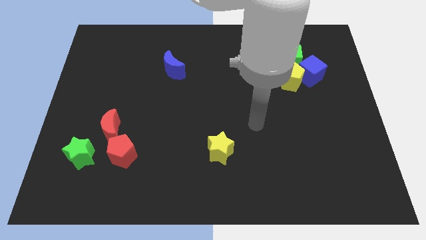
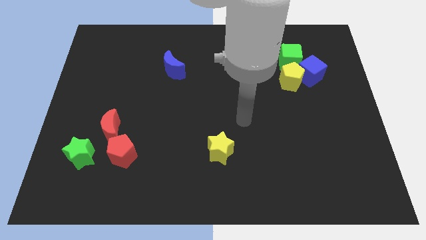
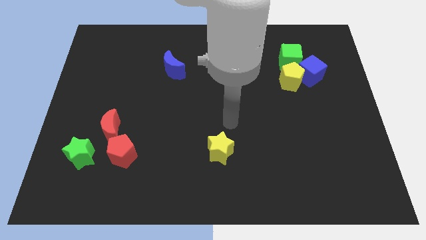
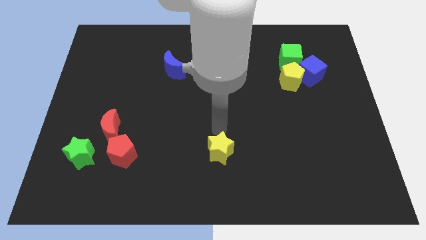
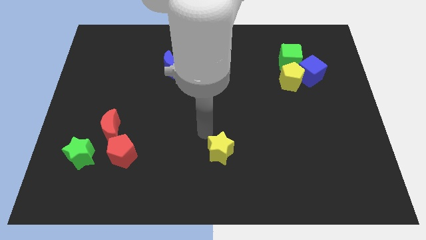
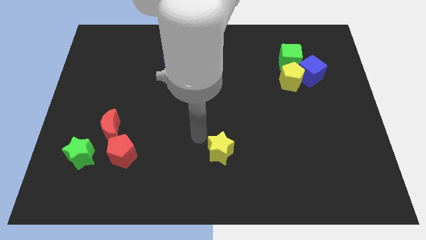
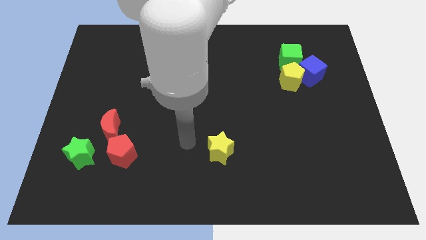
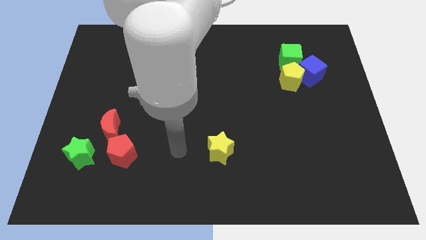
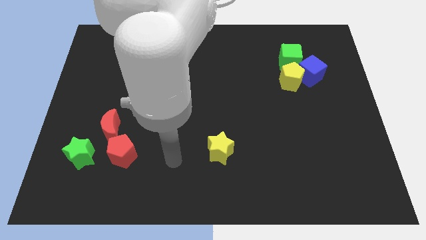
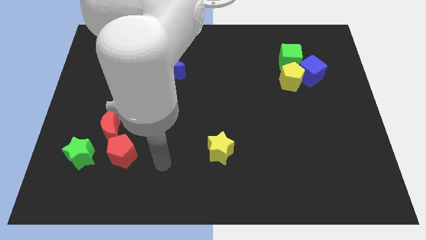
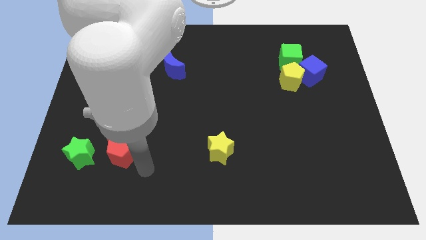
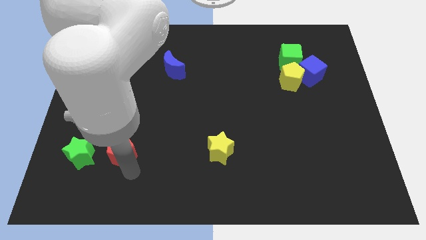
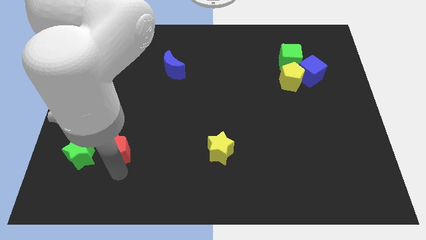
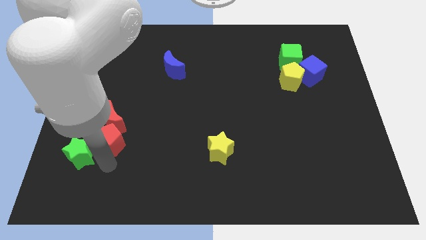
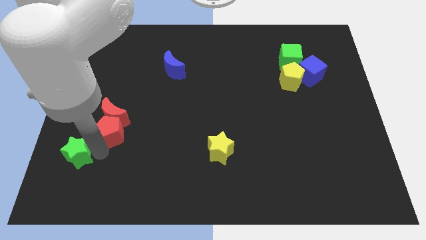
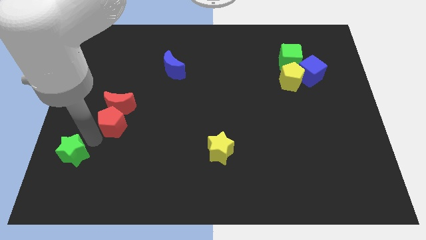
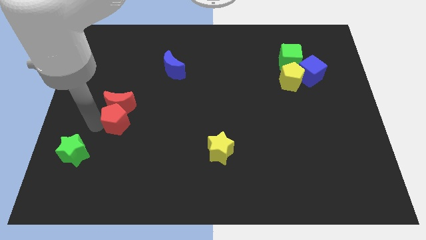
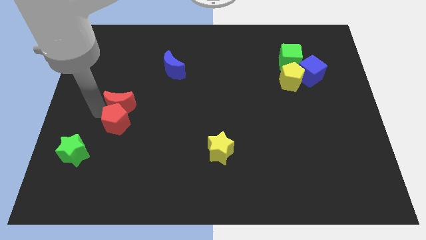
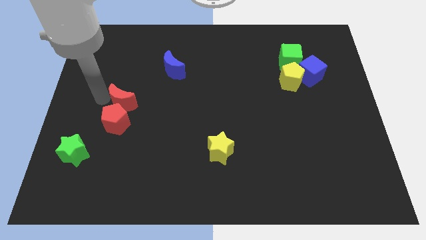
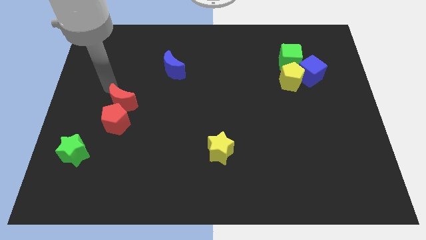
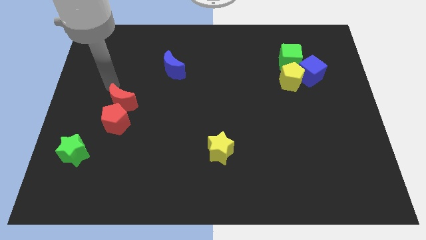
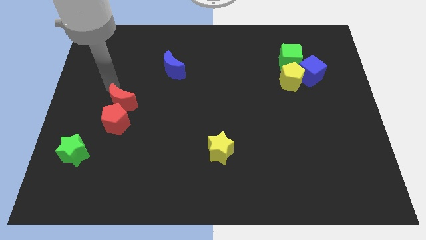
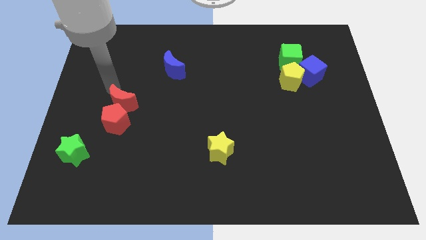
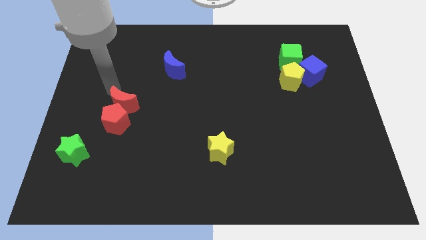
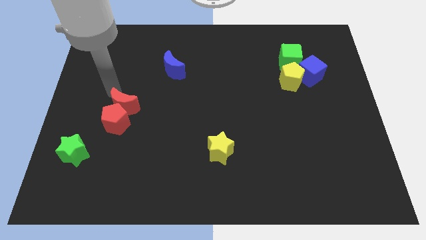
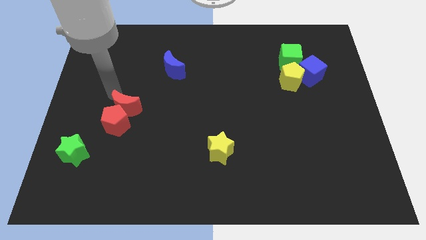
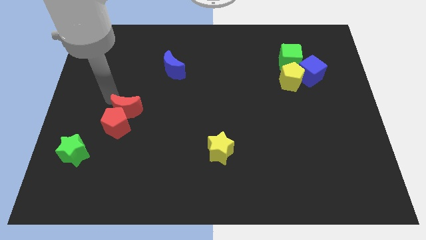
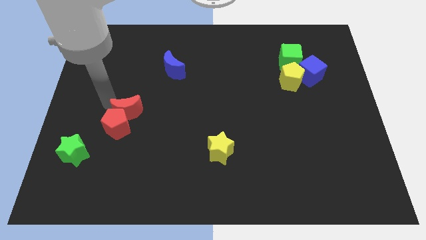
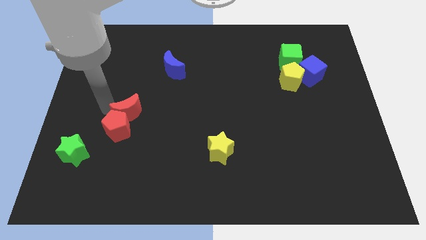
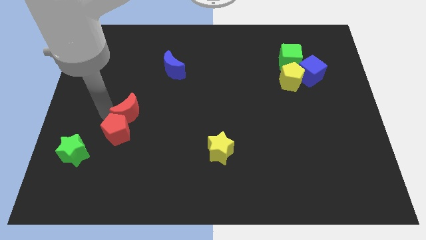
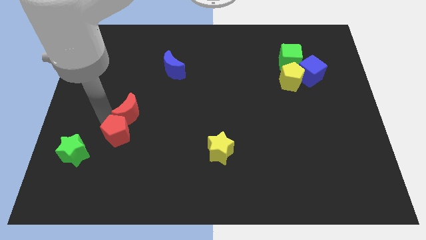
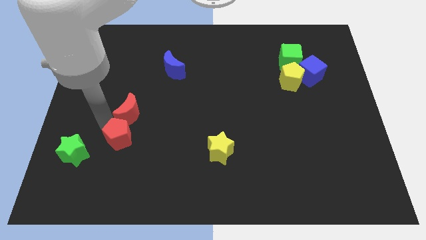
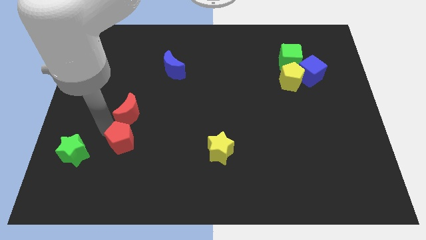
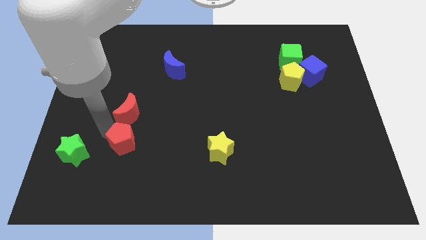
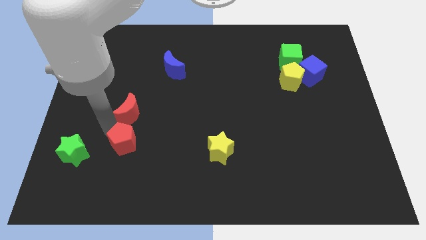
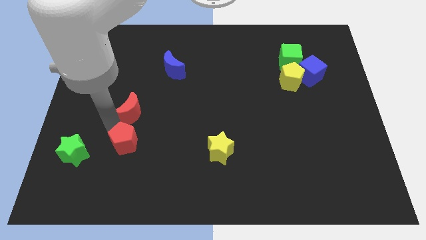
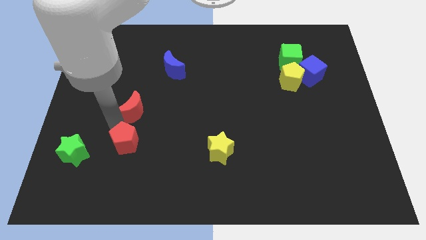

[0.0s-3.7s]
move the red moon a little bit upwards and right diagonally

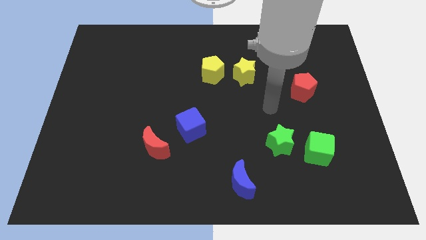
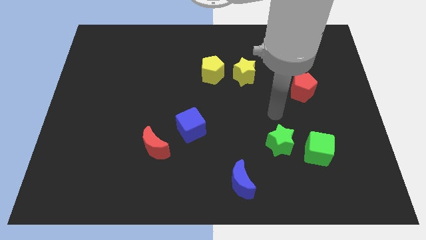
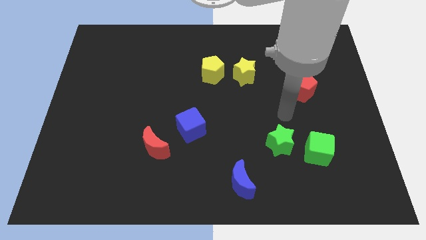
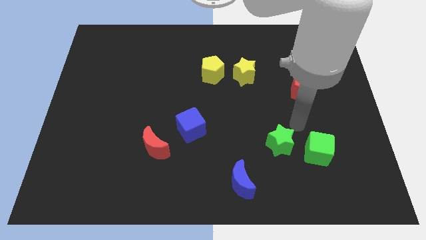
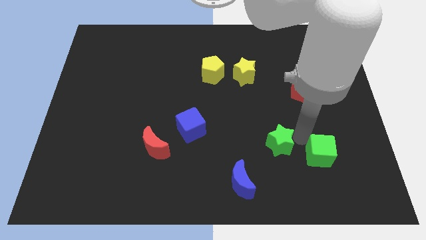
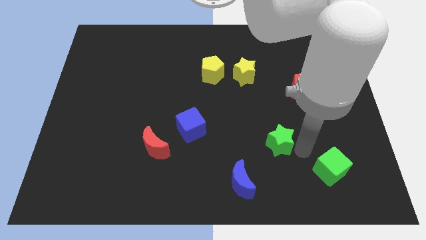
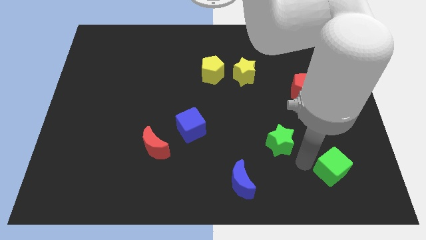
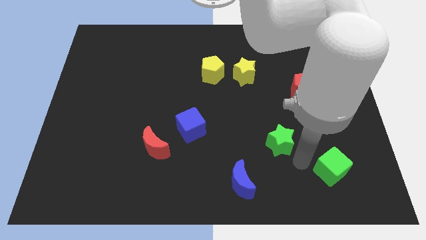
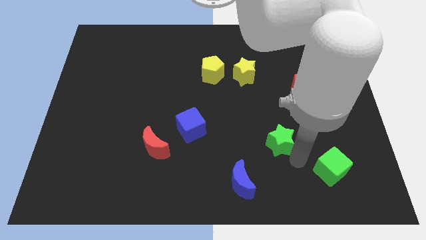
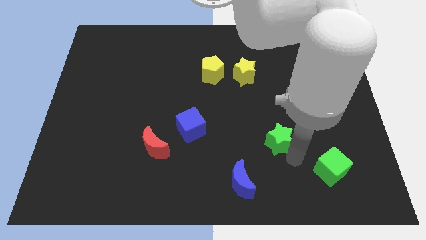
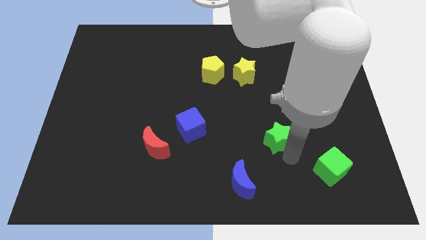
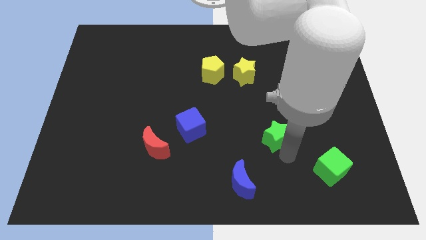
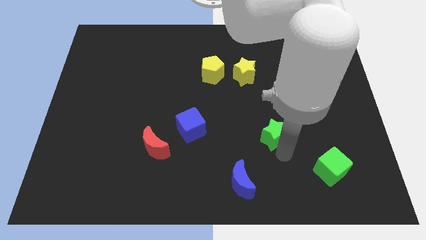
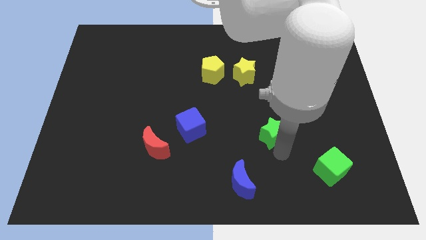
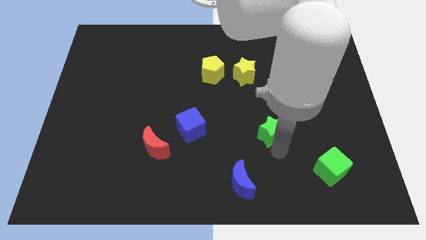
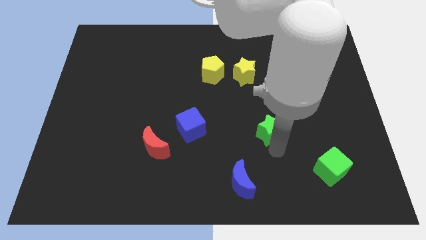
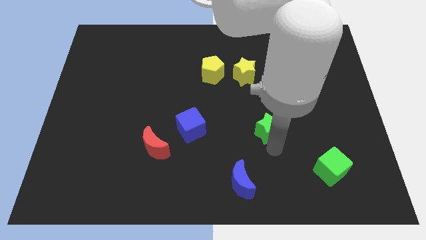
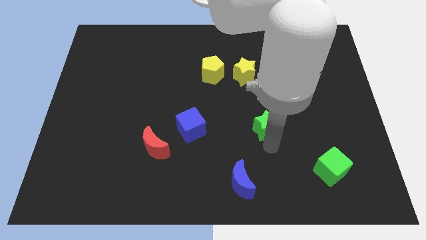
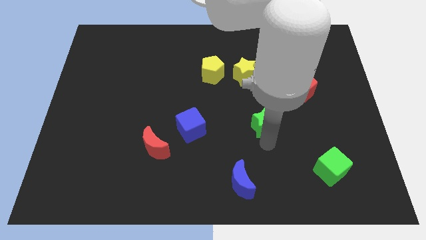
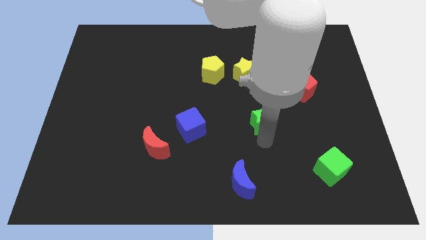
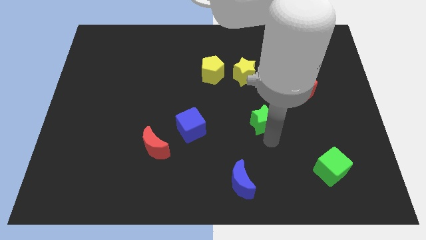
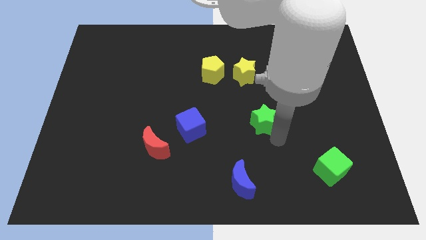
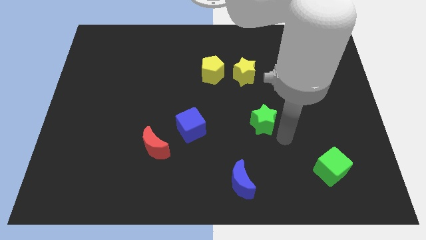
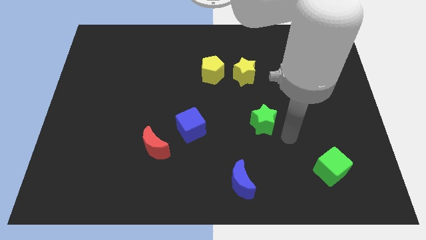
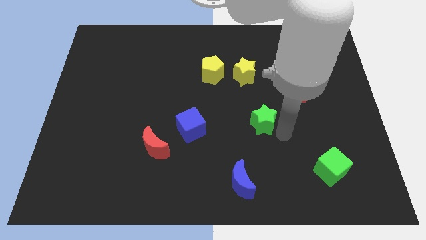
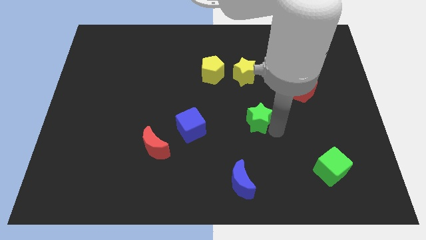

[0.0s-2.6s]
slightly slide the green star up and left

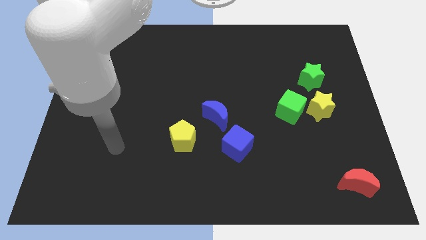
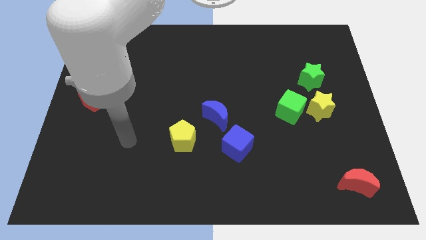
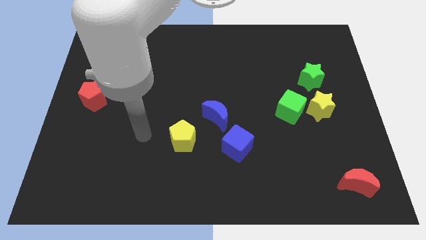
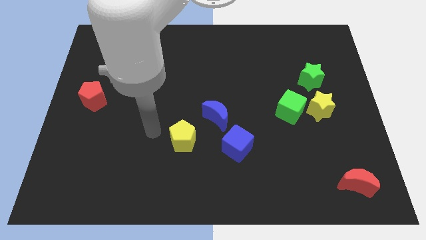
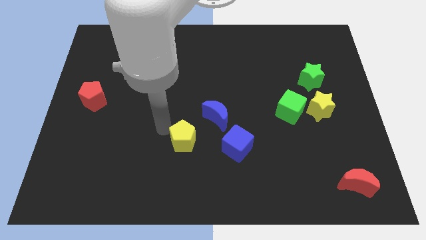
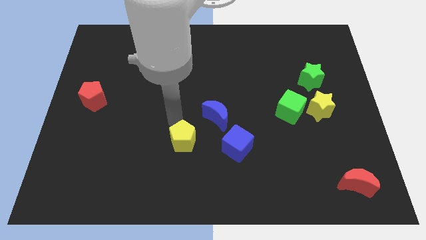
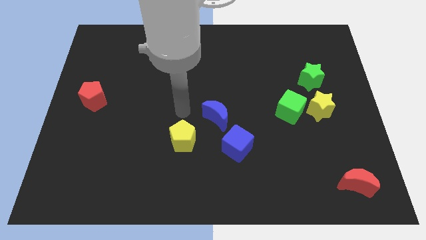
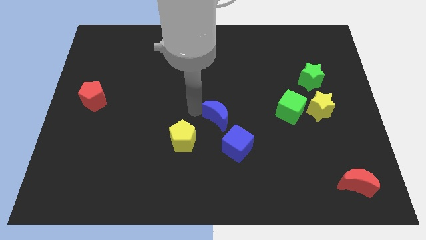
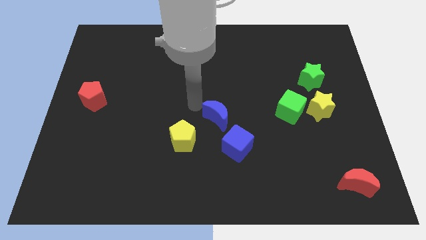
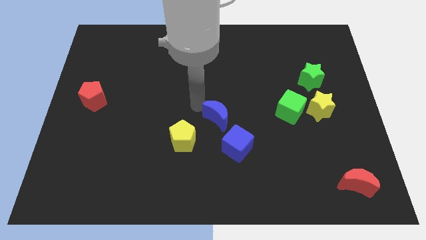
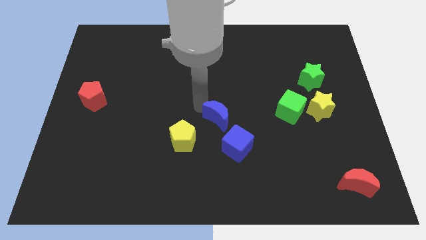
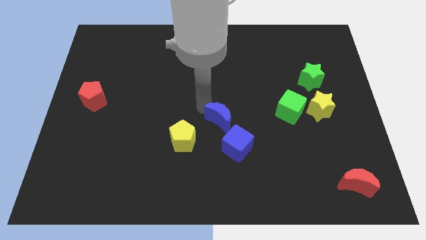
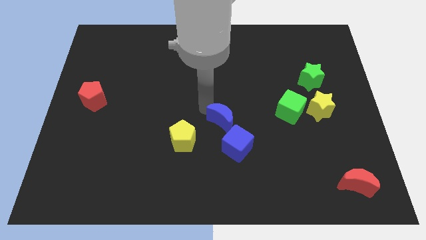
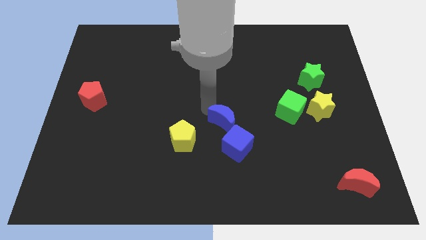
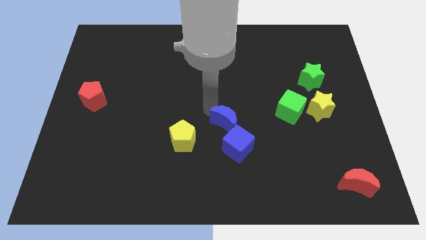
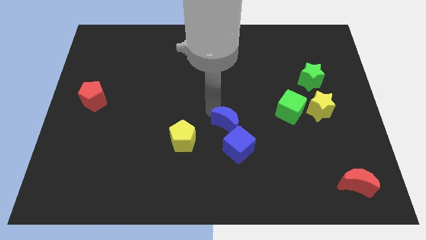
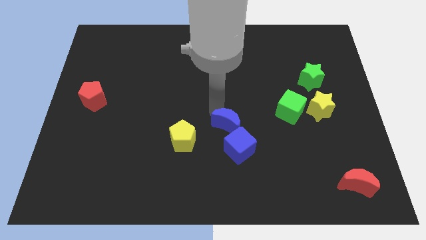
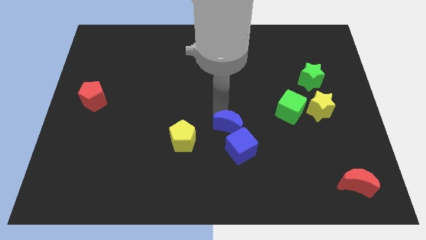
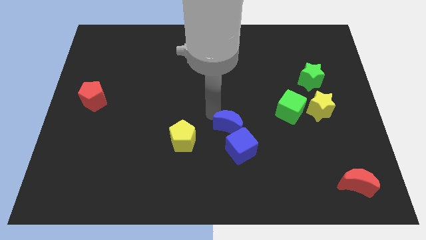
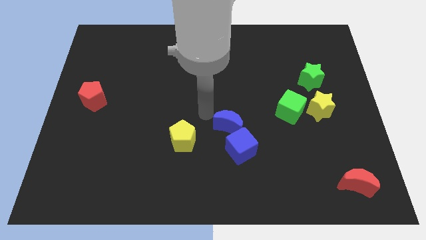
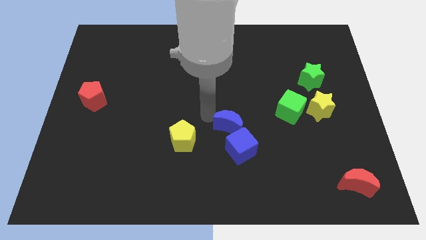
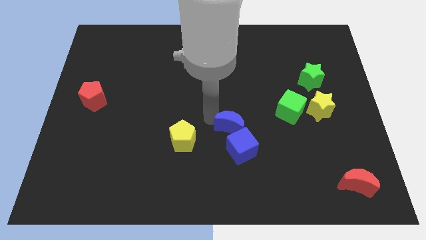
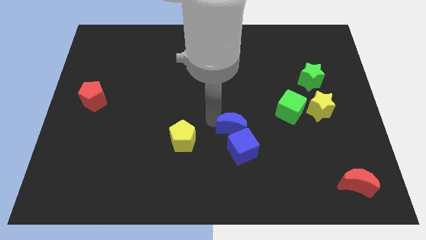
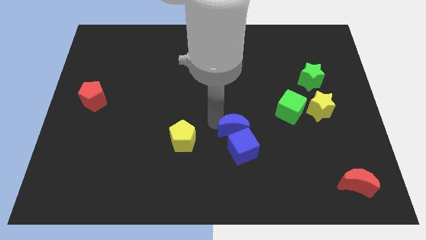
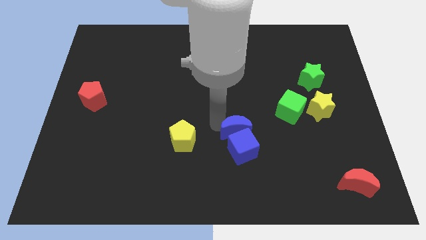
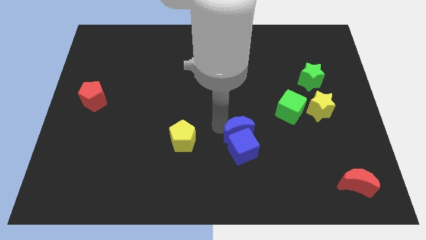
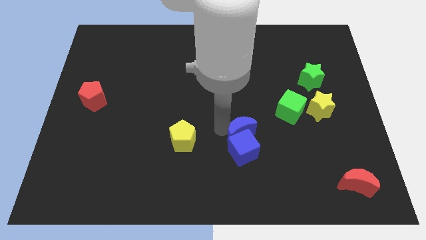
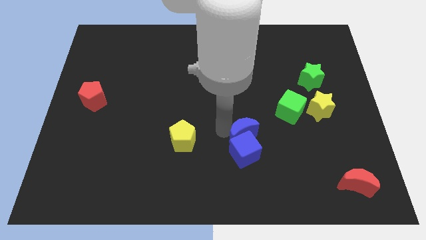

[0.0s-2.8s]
move the blue moon down and to the right diagonally a bit
